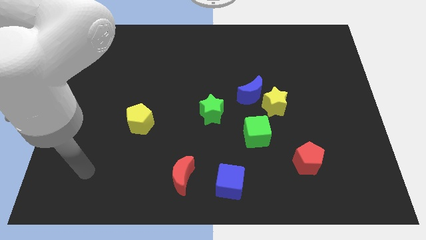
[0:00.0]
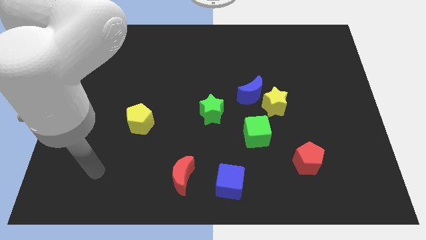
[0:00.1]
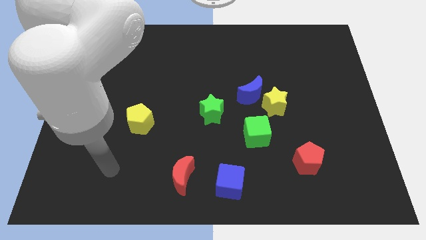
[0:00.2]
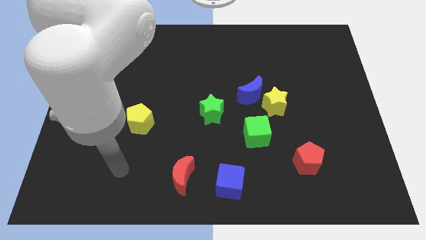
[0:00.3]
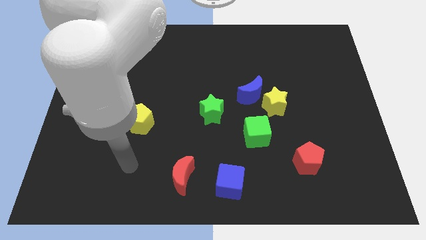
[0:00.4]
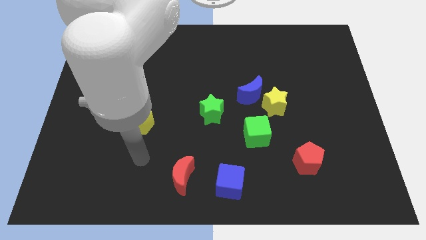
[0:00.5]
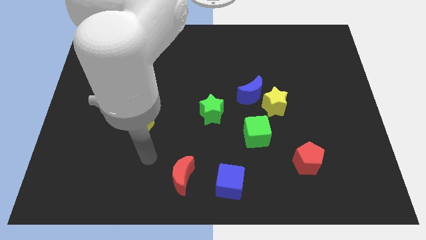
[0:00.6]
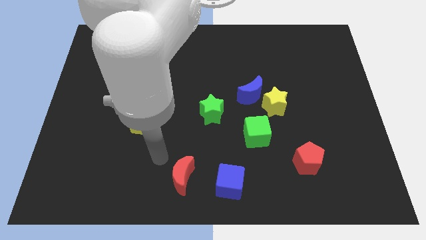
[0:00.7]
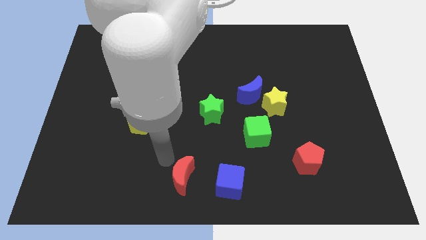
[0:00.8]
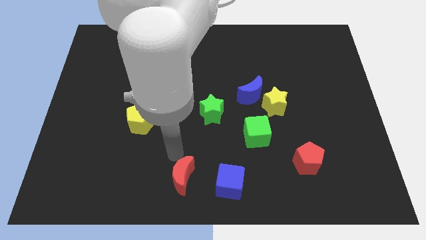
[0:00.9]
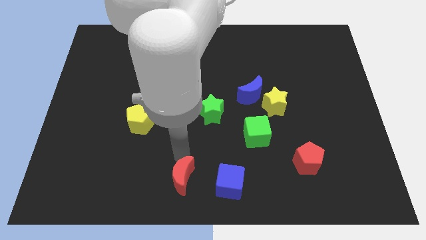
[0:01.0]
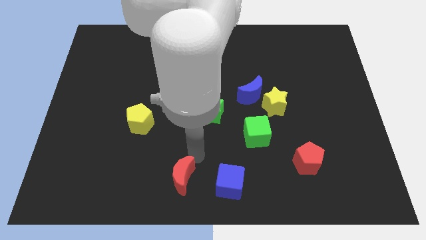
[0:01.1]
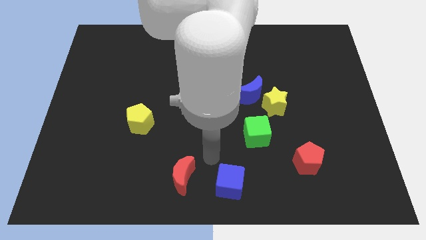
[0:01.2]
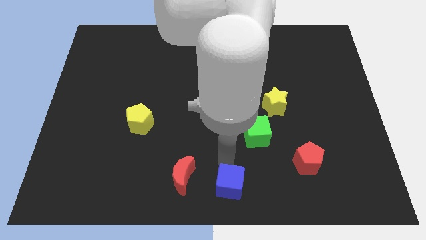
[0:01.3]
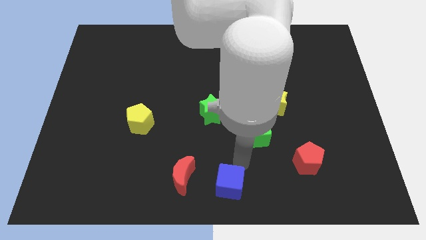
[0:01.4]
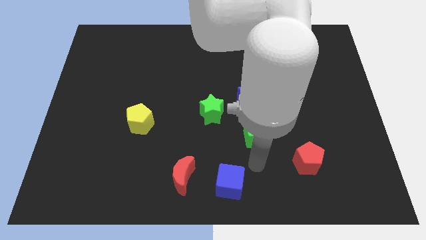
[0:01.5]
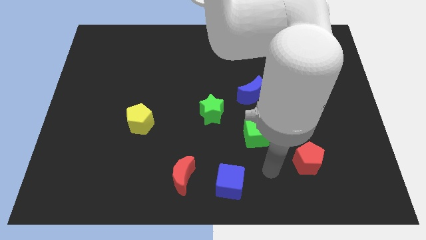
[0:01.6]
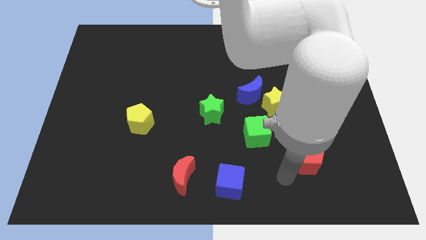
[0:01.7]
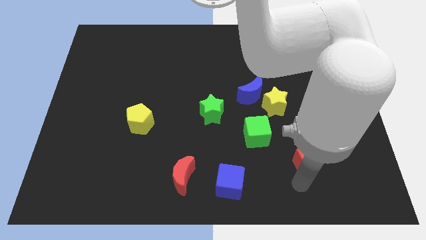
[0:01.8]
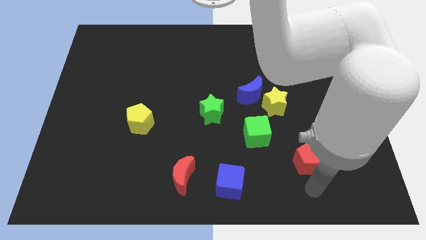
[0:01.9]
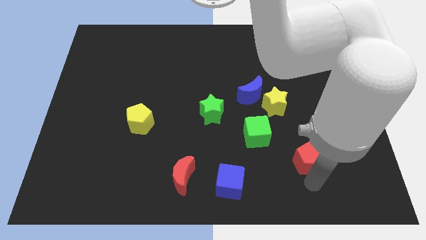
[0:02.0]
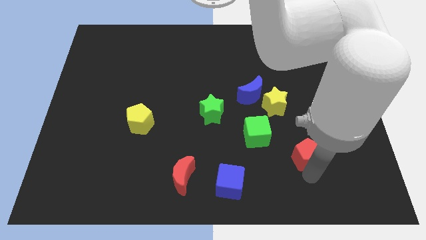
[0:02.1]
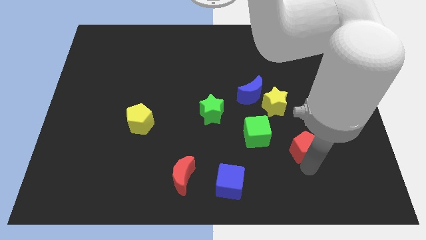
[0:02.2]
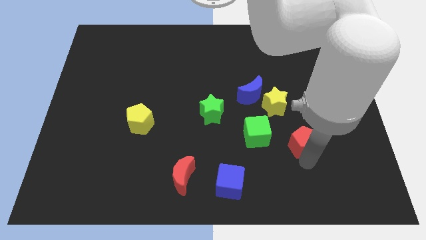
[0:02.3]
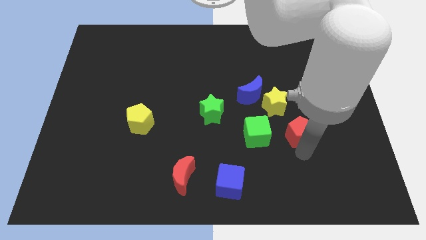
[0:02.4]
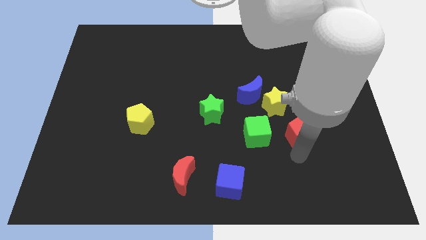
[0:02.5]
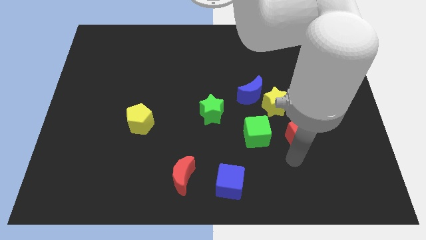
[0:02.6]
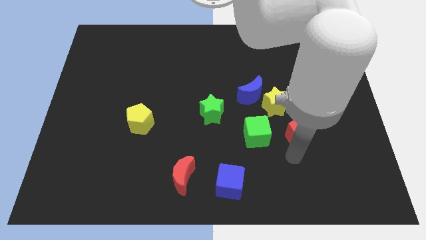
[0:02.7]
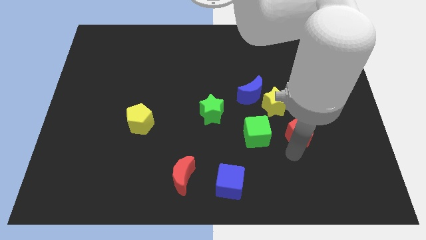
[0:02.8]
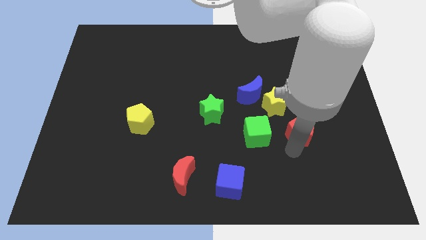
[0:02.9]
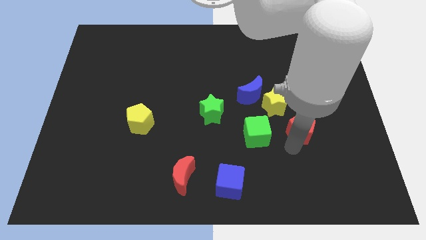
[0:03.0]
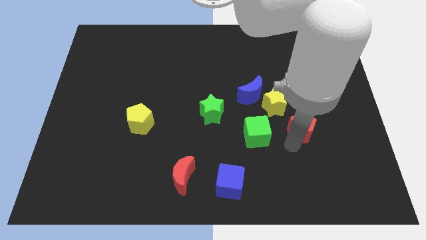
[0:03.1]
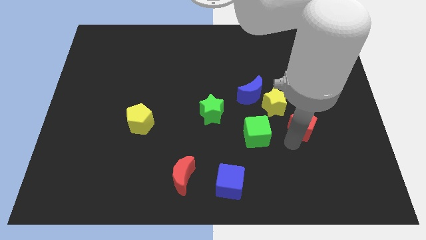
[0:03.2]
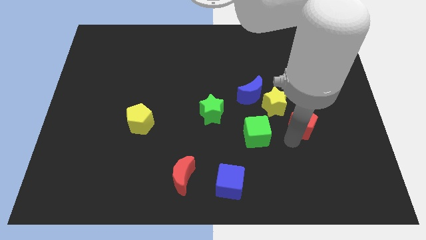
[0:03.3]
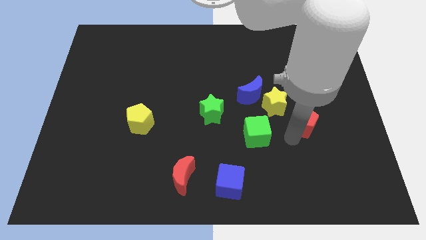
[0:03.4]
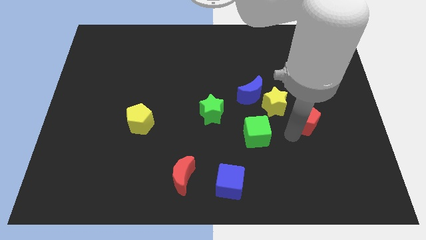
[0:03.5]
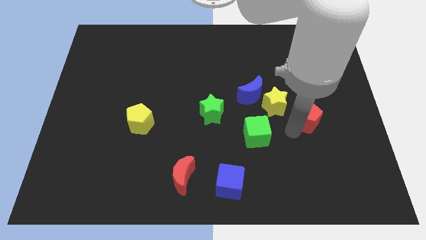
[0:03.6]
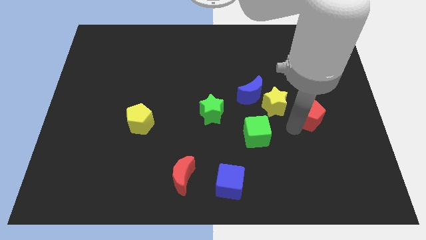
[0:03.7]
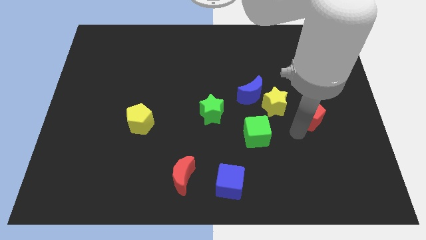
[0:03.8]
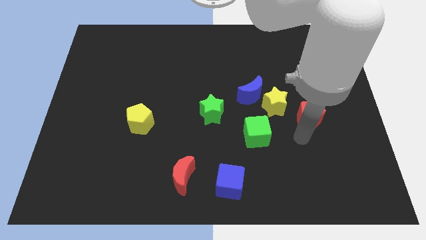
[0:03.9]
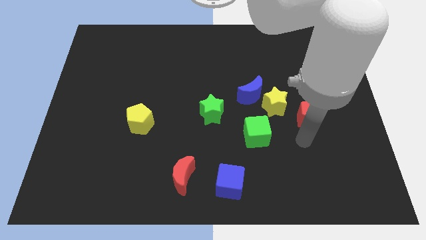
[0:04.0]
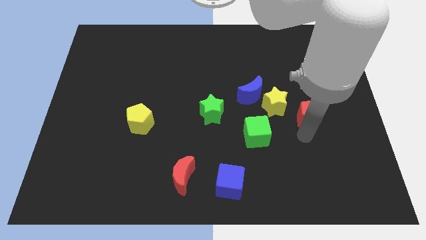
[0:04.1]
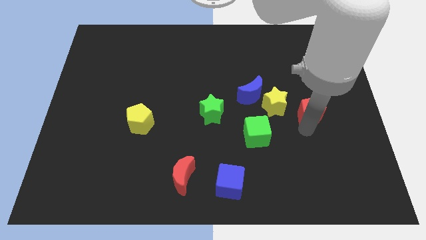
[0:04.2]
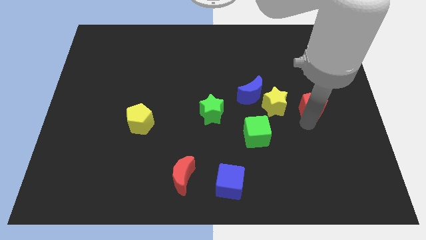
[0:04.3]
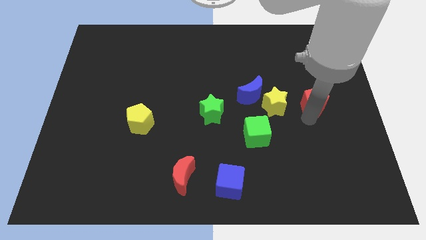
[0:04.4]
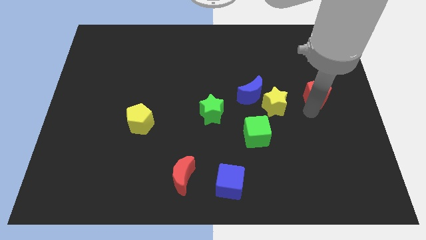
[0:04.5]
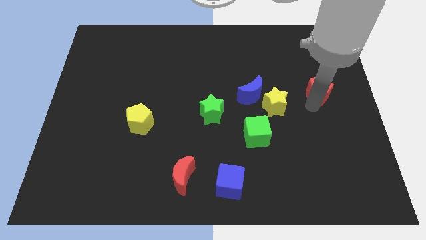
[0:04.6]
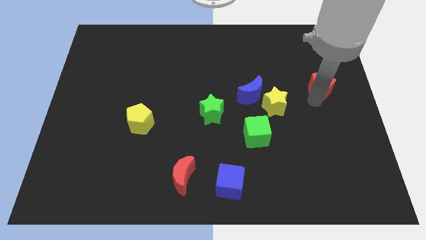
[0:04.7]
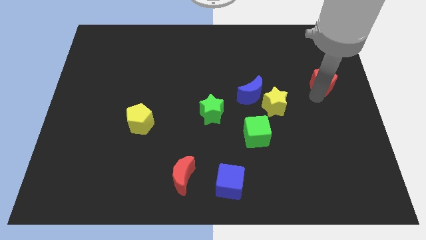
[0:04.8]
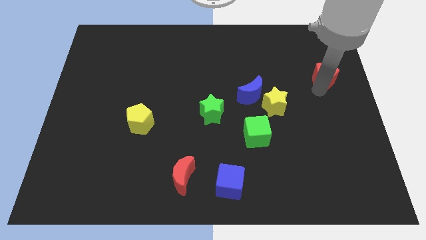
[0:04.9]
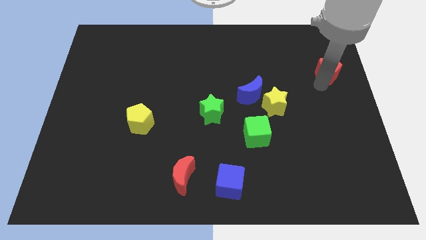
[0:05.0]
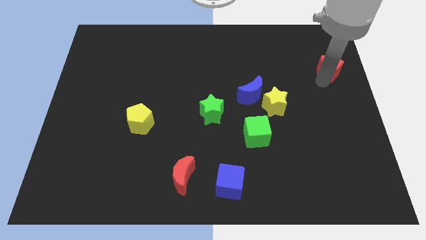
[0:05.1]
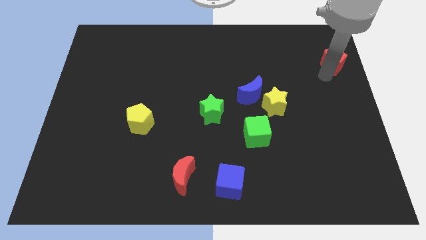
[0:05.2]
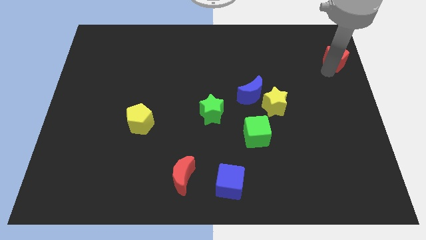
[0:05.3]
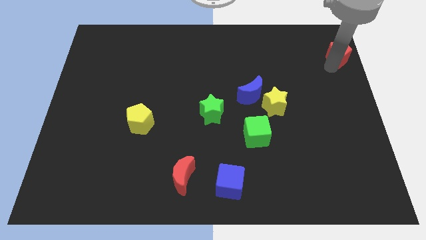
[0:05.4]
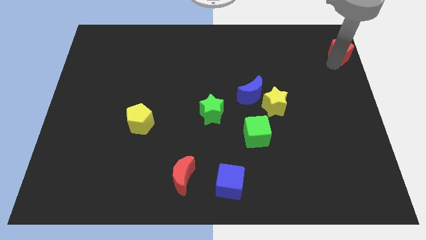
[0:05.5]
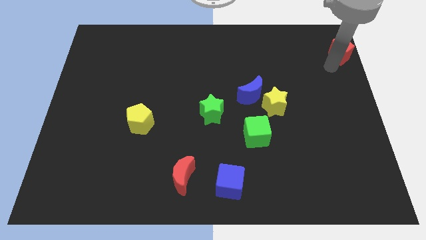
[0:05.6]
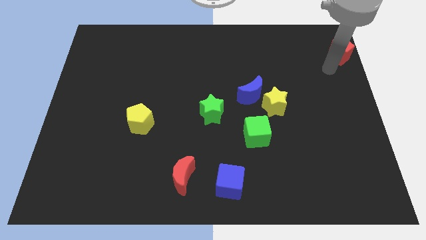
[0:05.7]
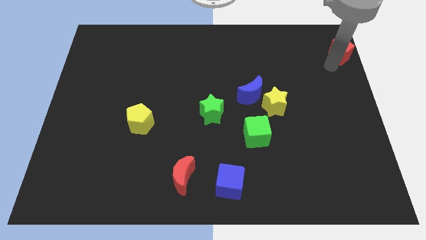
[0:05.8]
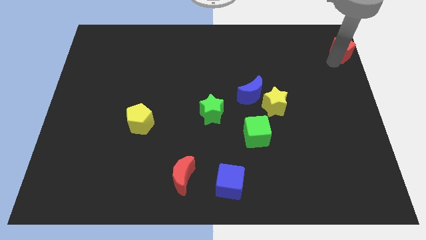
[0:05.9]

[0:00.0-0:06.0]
move the red pentagon to the upper right corner

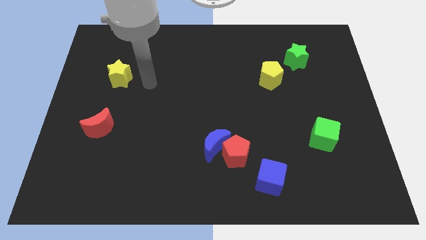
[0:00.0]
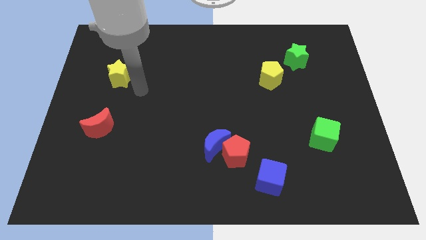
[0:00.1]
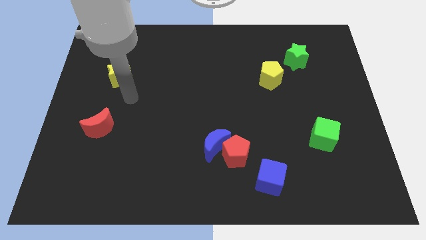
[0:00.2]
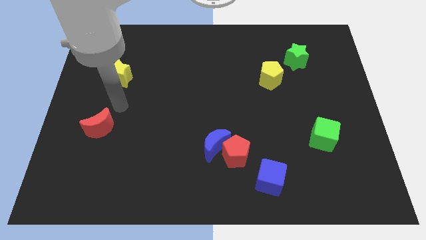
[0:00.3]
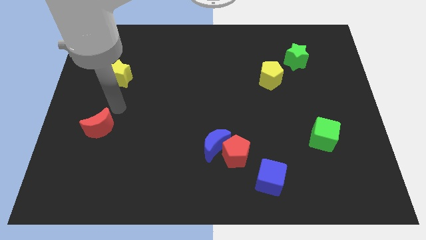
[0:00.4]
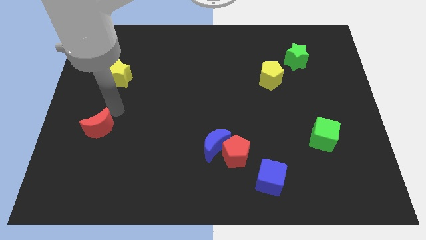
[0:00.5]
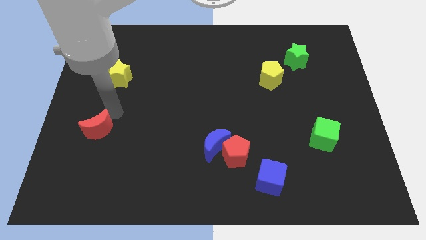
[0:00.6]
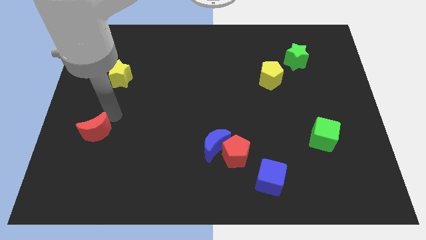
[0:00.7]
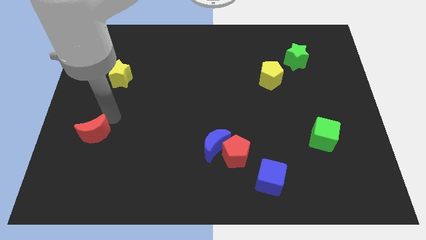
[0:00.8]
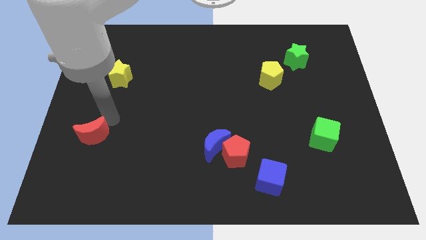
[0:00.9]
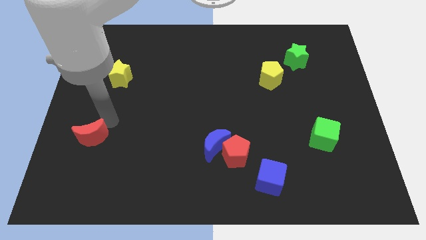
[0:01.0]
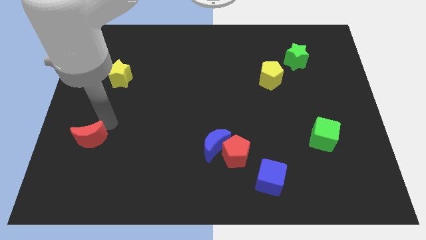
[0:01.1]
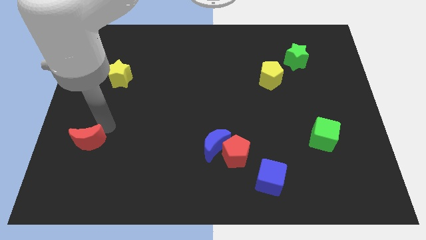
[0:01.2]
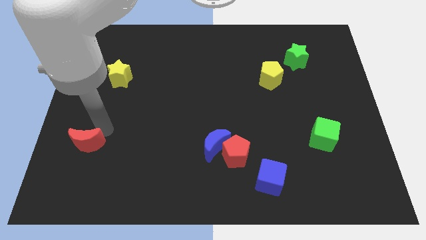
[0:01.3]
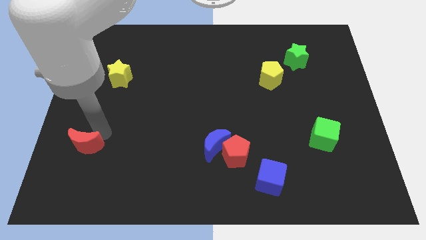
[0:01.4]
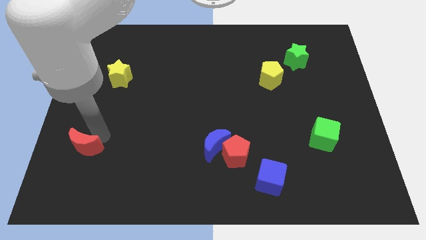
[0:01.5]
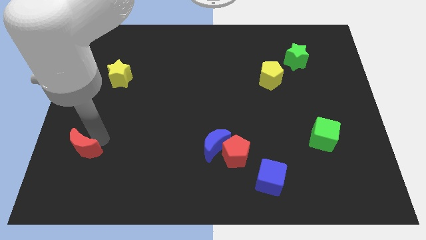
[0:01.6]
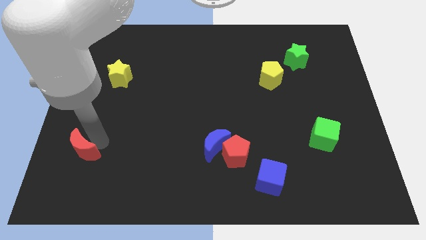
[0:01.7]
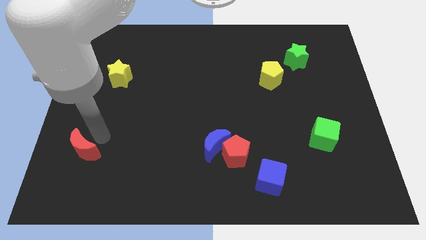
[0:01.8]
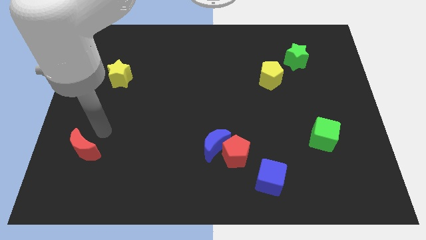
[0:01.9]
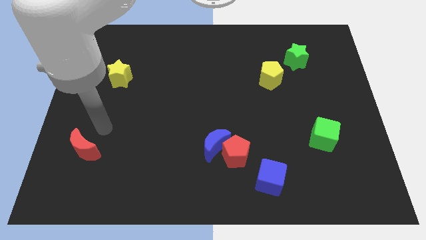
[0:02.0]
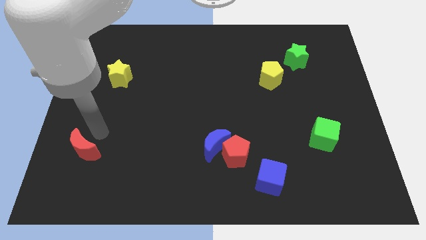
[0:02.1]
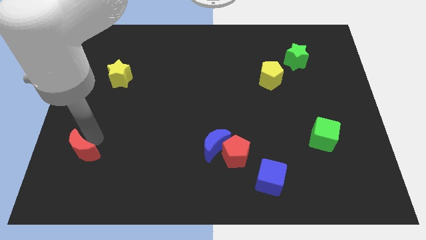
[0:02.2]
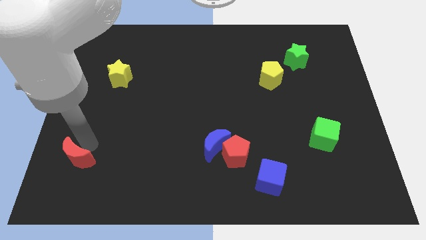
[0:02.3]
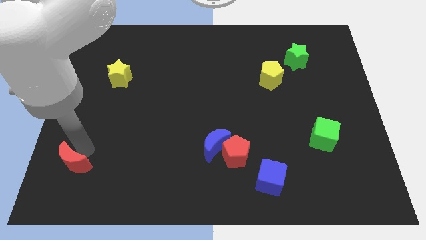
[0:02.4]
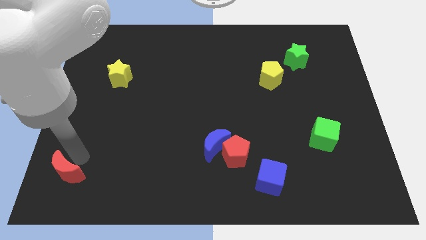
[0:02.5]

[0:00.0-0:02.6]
put the red moon to the bottom left
